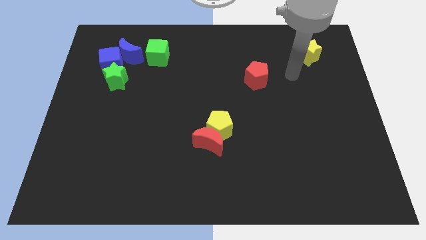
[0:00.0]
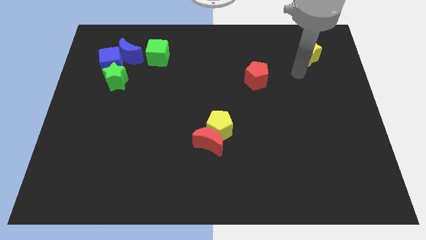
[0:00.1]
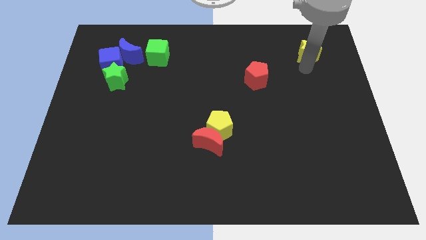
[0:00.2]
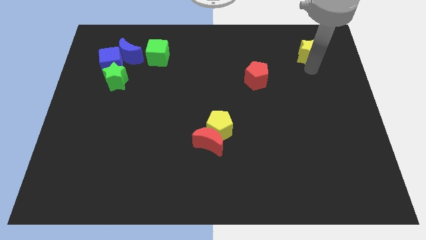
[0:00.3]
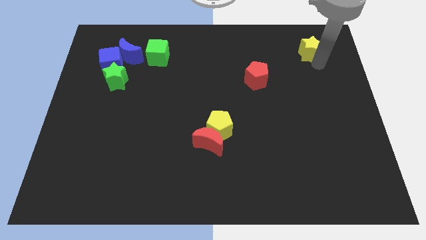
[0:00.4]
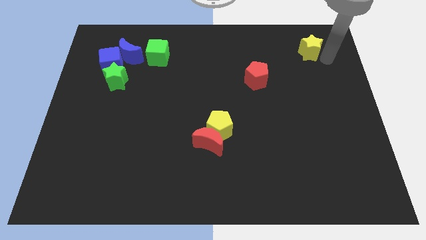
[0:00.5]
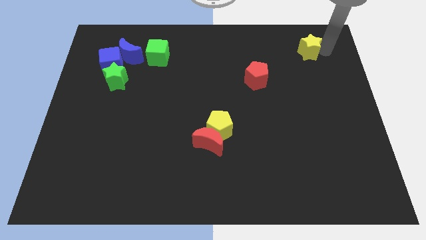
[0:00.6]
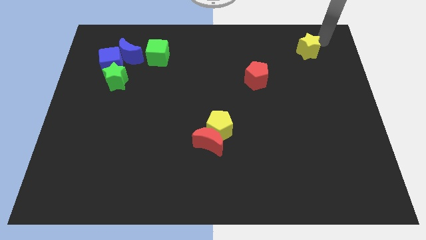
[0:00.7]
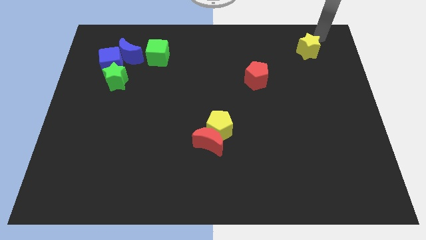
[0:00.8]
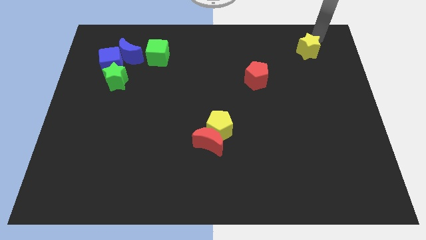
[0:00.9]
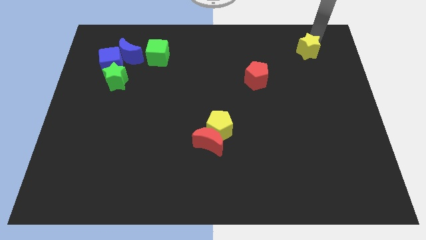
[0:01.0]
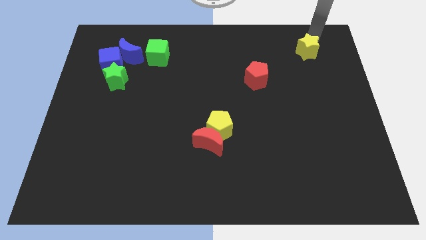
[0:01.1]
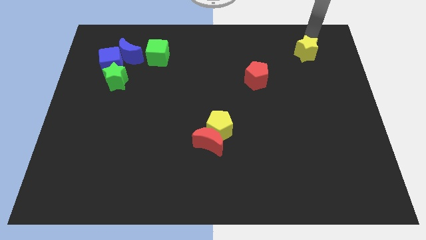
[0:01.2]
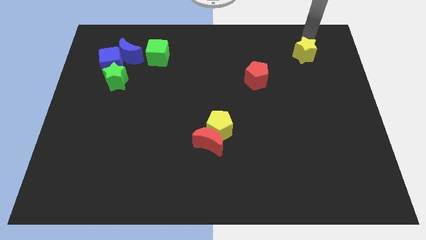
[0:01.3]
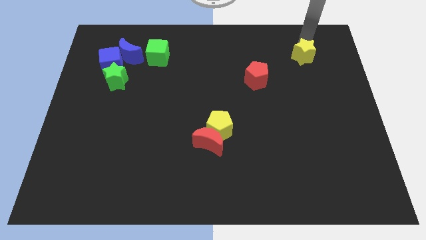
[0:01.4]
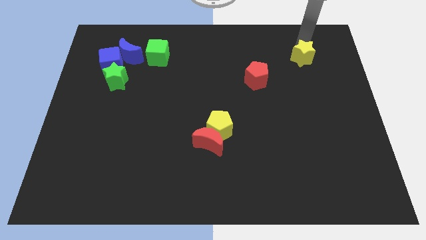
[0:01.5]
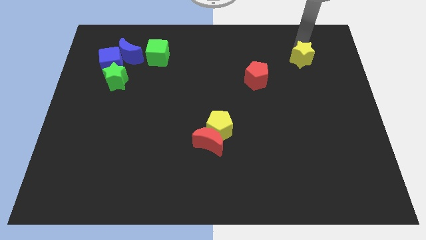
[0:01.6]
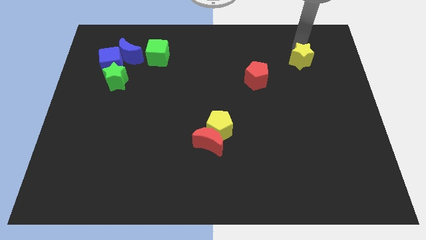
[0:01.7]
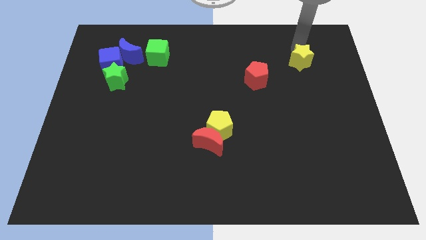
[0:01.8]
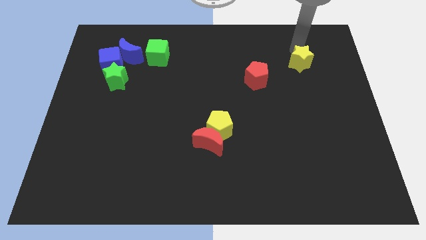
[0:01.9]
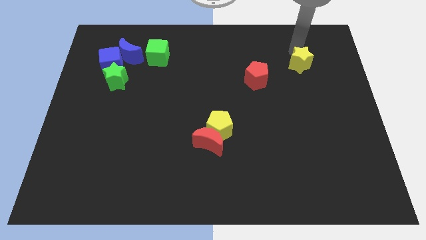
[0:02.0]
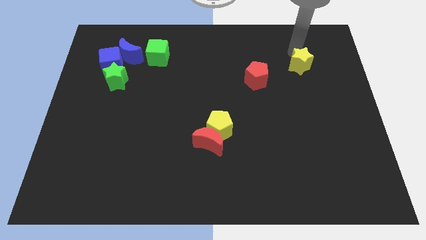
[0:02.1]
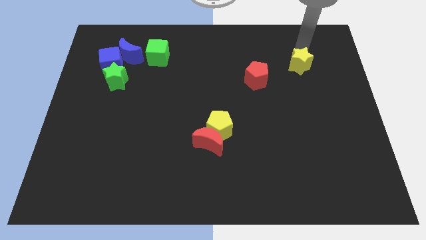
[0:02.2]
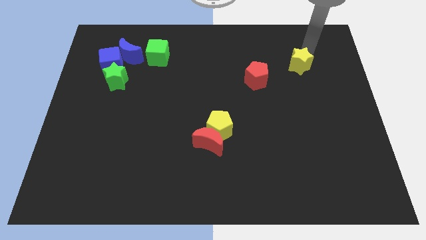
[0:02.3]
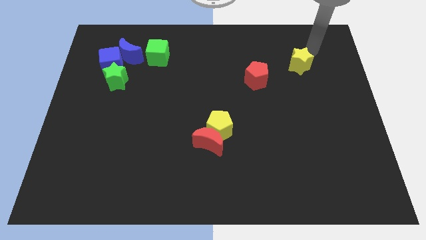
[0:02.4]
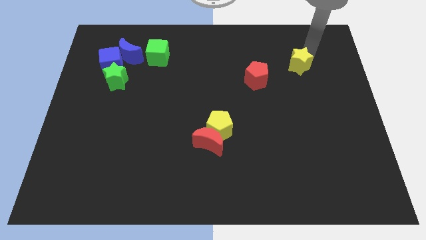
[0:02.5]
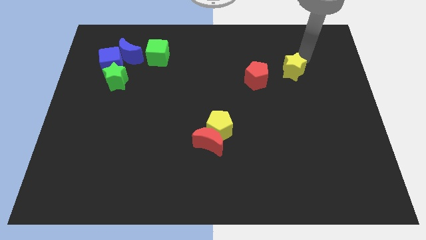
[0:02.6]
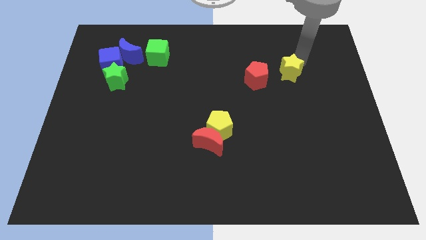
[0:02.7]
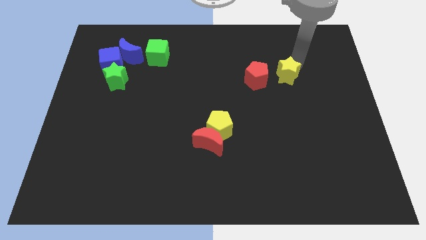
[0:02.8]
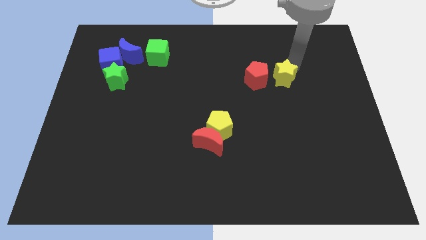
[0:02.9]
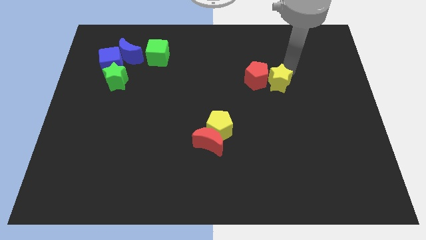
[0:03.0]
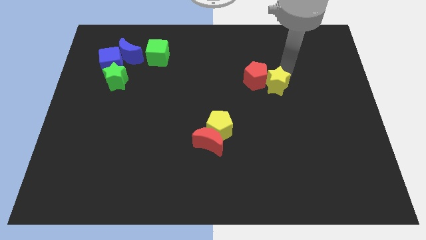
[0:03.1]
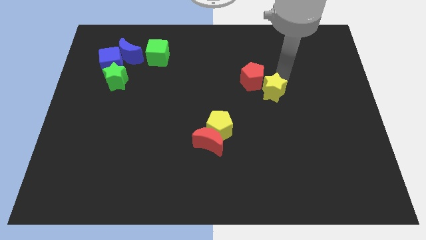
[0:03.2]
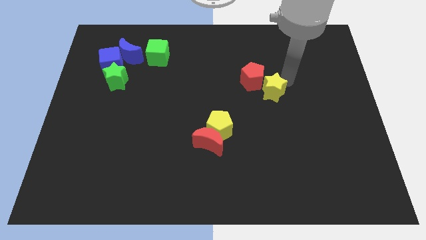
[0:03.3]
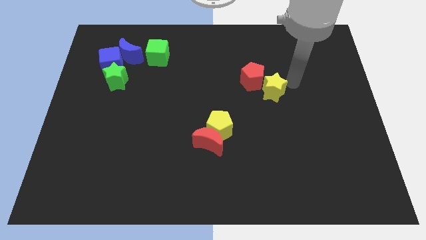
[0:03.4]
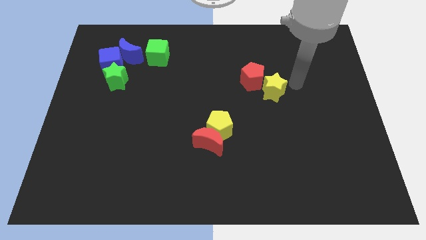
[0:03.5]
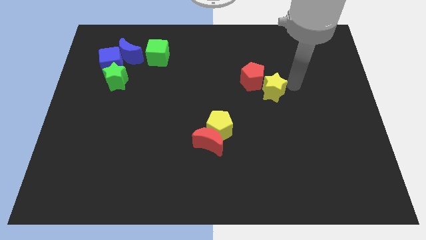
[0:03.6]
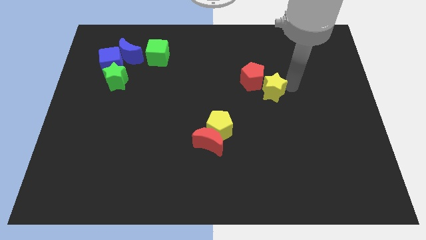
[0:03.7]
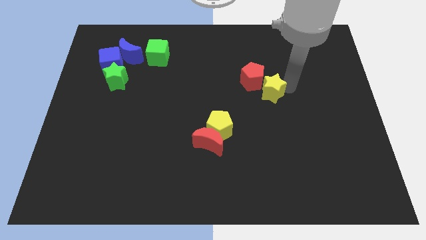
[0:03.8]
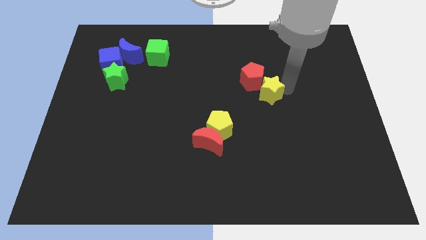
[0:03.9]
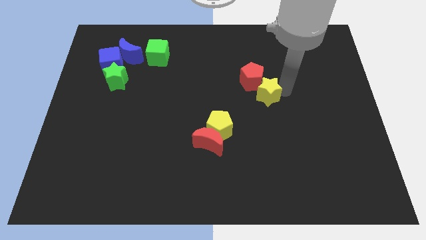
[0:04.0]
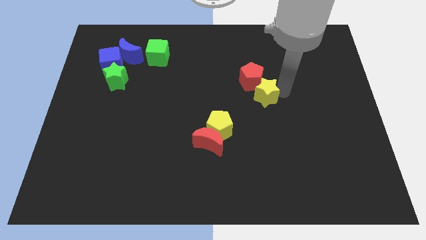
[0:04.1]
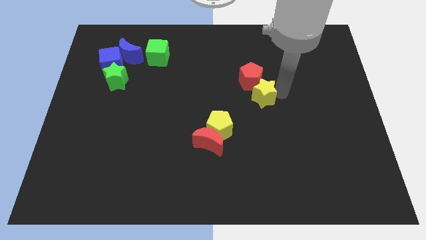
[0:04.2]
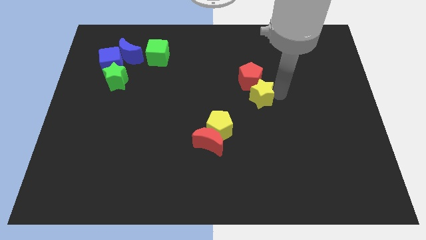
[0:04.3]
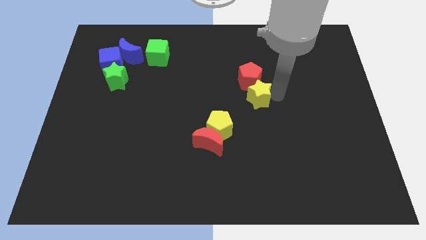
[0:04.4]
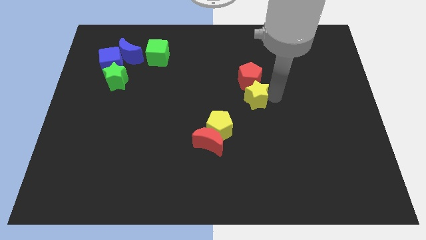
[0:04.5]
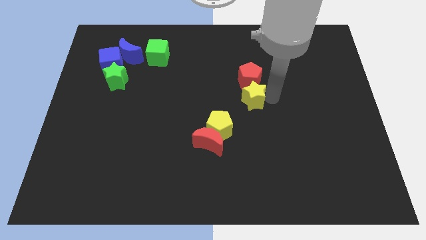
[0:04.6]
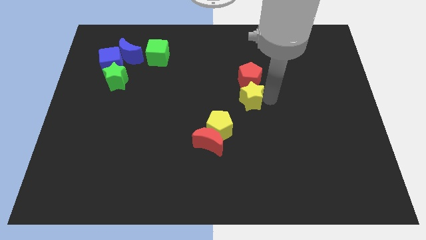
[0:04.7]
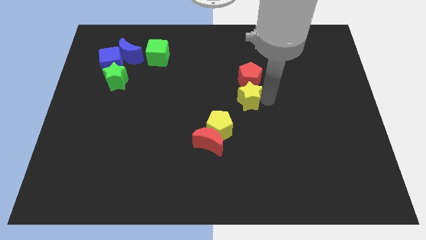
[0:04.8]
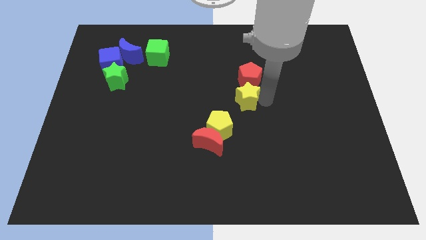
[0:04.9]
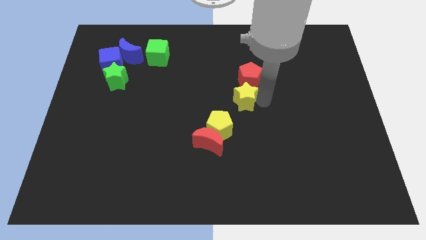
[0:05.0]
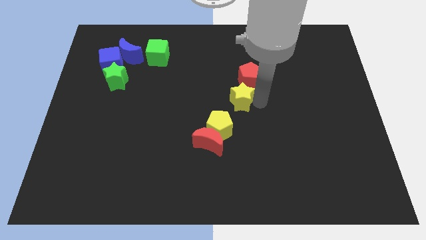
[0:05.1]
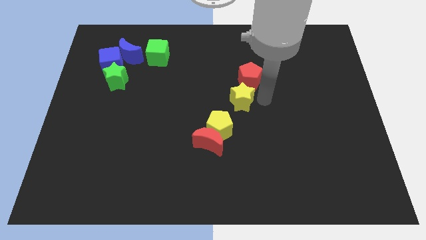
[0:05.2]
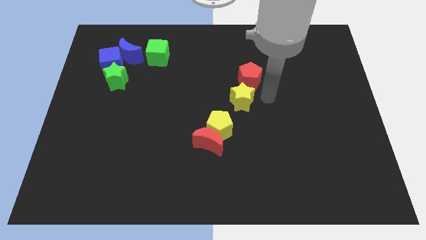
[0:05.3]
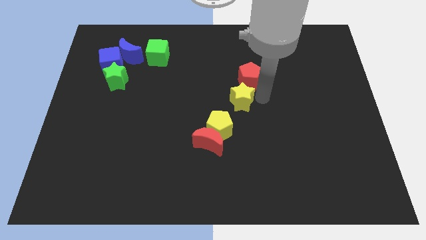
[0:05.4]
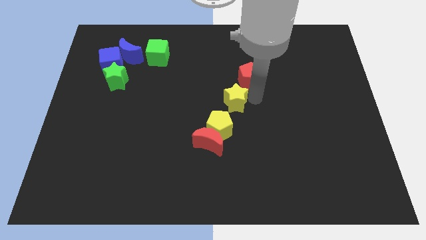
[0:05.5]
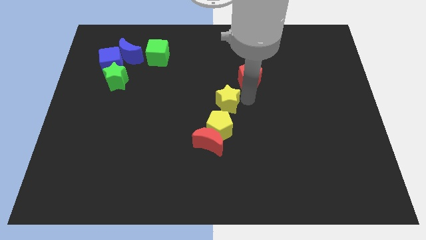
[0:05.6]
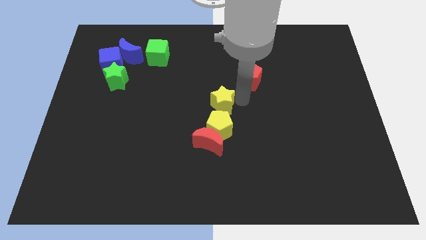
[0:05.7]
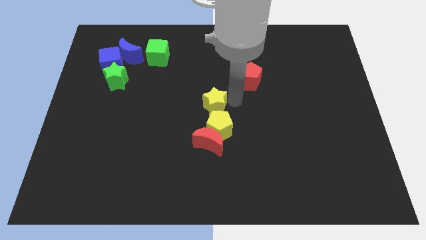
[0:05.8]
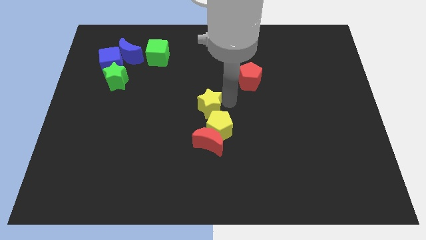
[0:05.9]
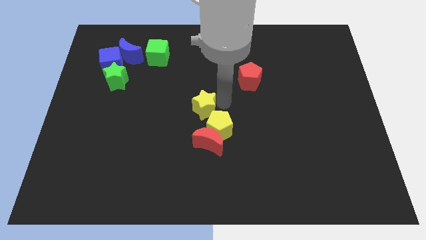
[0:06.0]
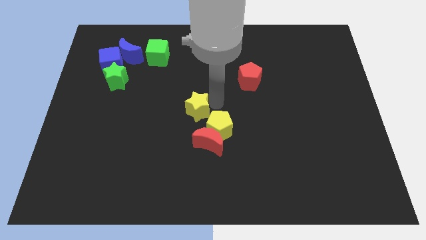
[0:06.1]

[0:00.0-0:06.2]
put the yellow star to the top left of the red moon
